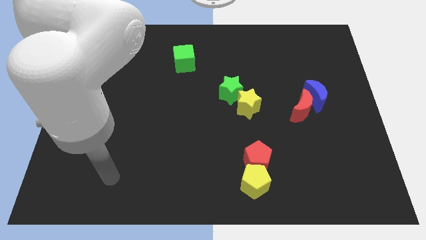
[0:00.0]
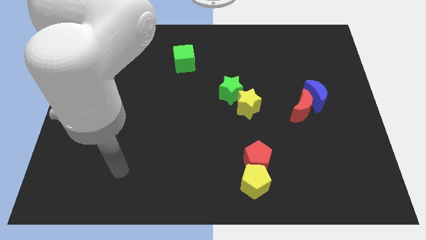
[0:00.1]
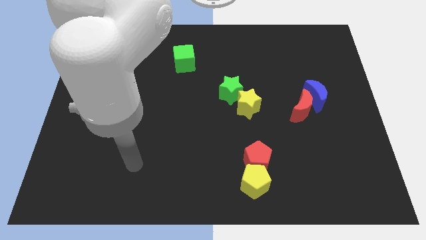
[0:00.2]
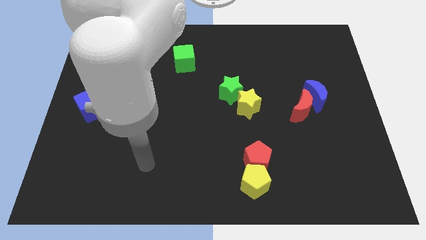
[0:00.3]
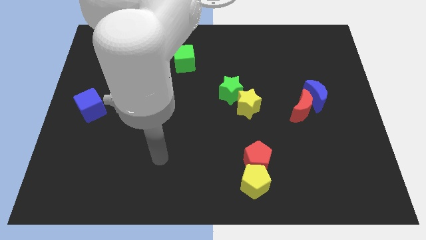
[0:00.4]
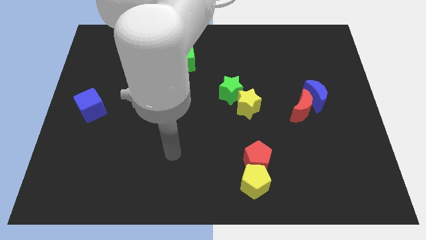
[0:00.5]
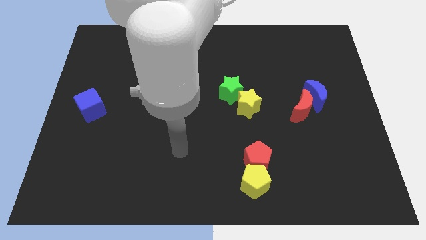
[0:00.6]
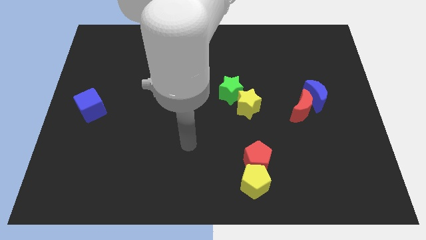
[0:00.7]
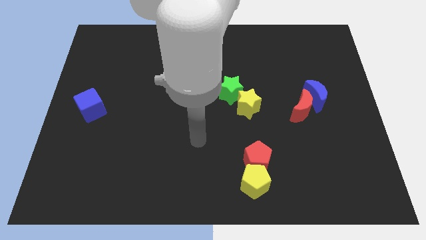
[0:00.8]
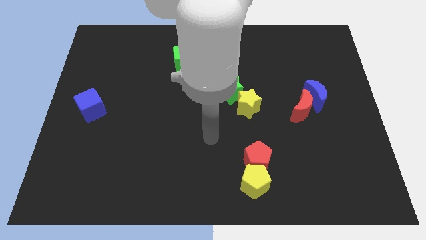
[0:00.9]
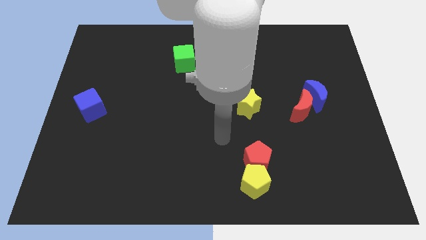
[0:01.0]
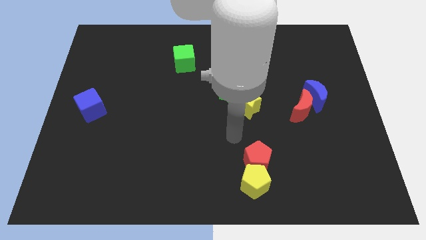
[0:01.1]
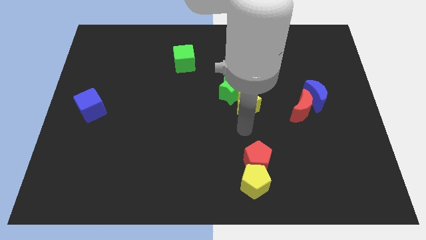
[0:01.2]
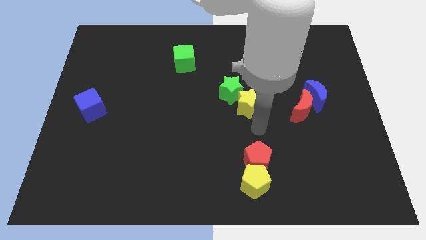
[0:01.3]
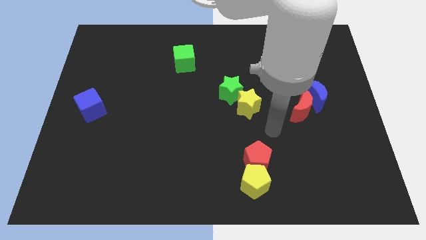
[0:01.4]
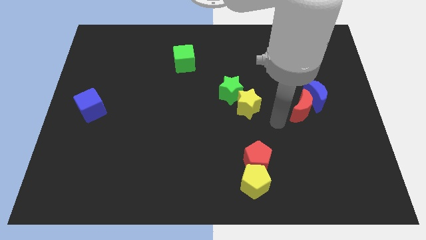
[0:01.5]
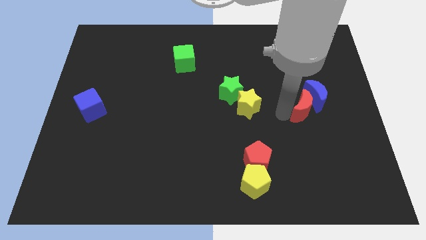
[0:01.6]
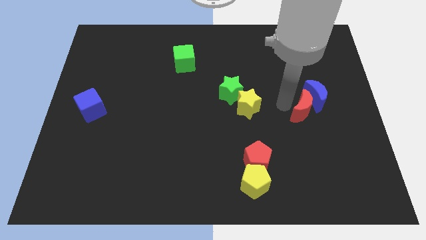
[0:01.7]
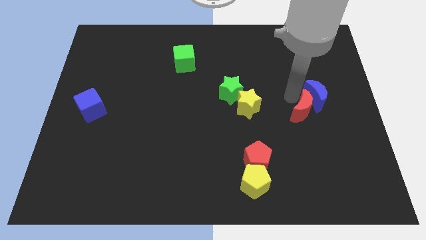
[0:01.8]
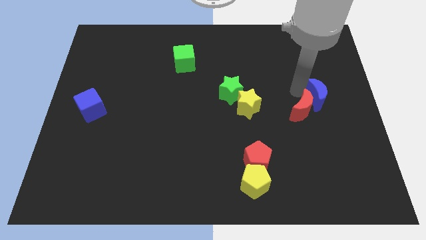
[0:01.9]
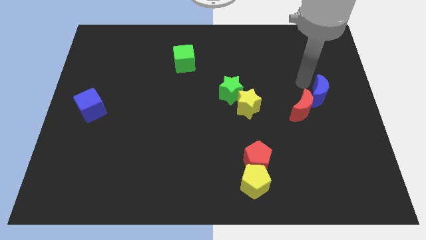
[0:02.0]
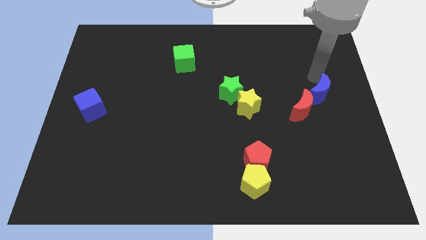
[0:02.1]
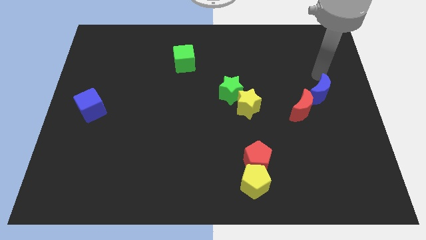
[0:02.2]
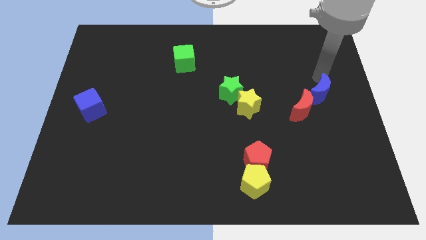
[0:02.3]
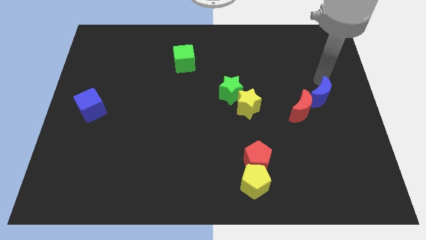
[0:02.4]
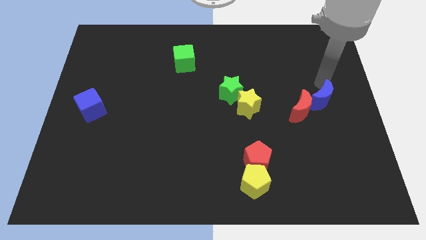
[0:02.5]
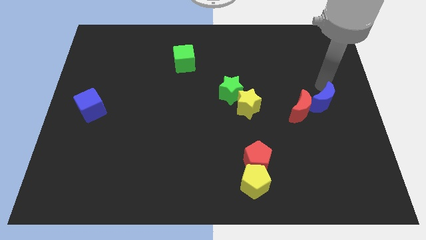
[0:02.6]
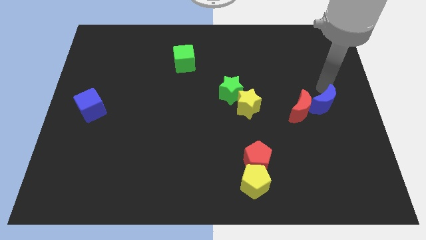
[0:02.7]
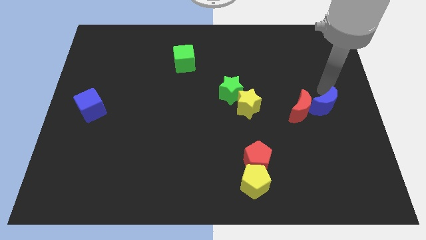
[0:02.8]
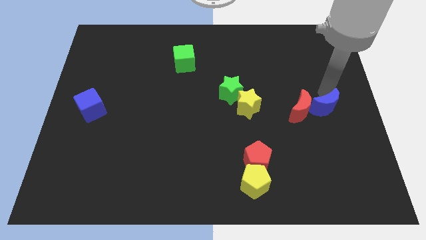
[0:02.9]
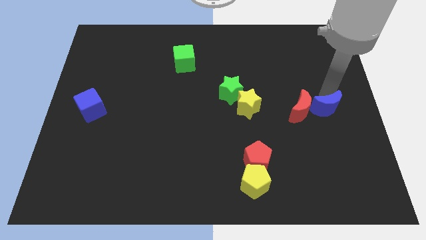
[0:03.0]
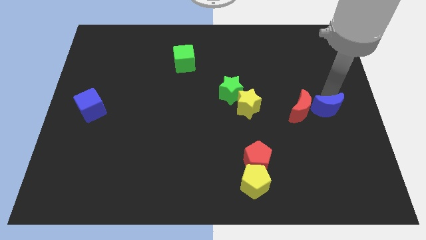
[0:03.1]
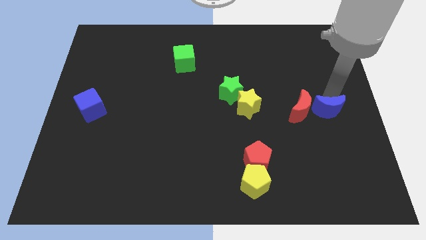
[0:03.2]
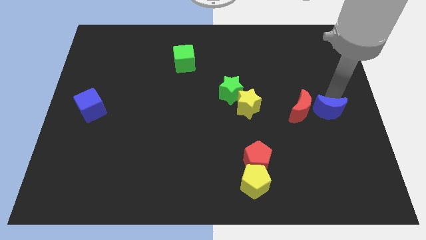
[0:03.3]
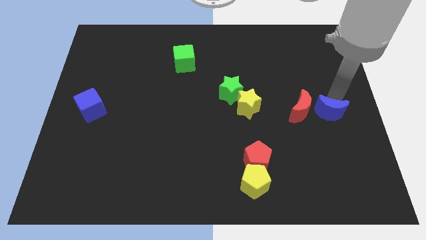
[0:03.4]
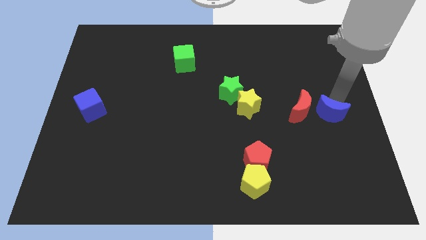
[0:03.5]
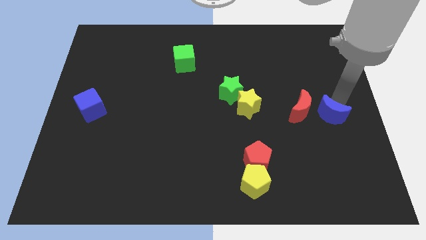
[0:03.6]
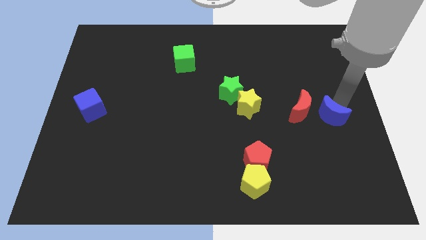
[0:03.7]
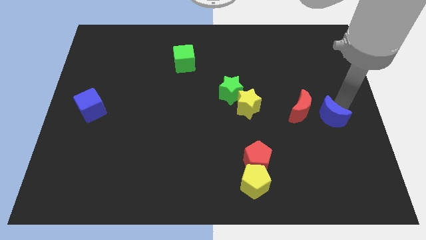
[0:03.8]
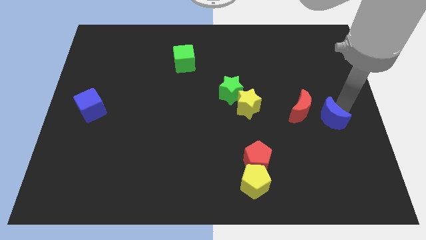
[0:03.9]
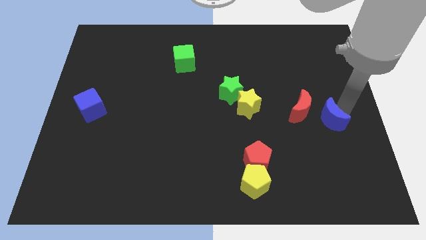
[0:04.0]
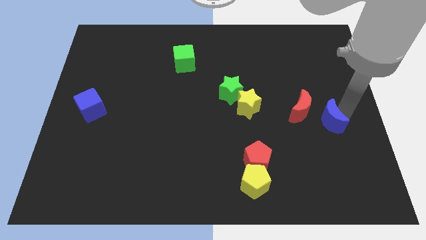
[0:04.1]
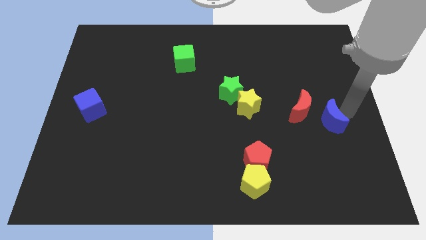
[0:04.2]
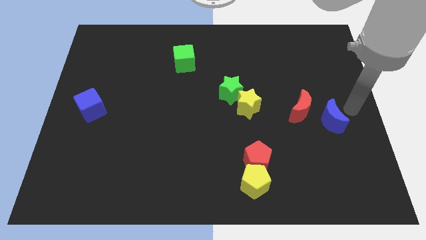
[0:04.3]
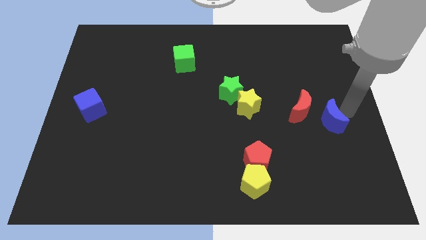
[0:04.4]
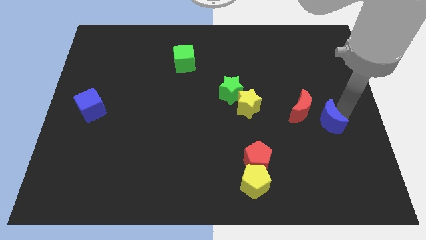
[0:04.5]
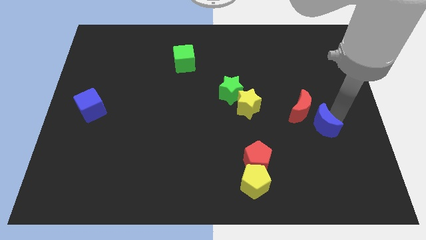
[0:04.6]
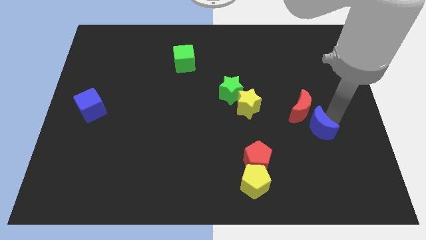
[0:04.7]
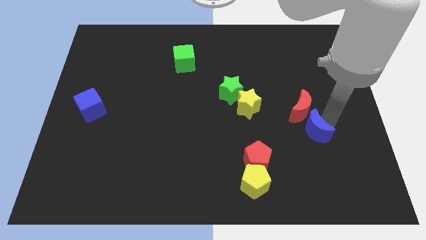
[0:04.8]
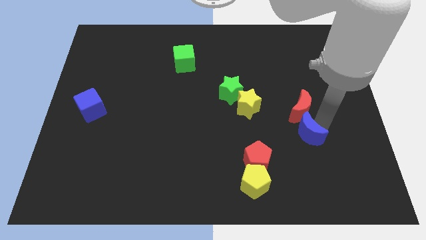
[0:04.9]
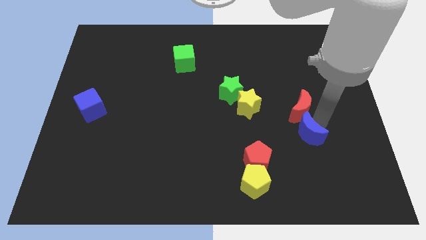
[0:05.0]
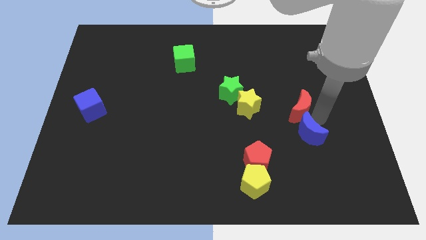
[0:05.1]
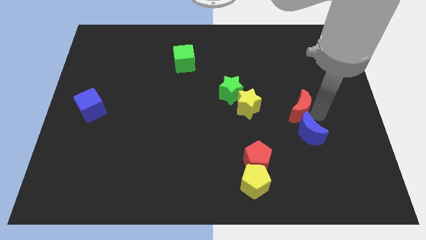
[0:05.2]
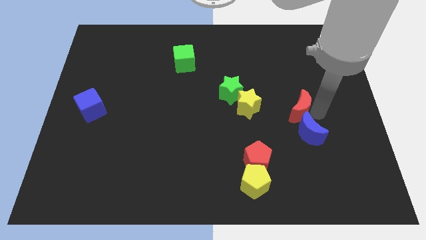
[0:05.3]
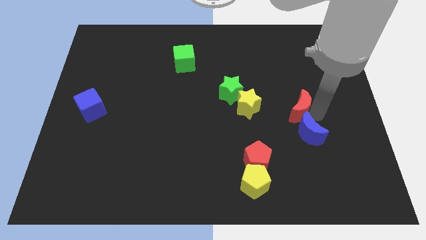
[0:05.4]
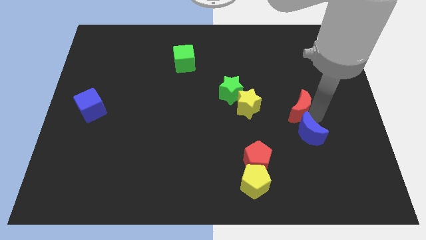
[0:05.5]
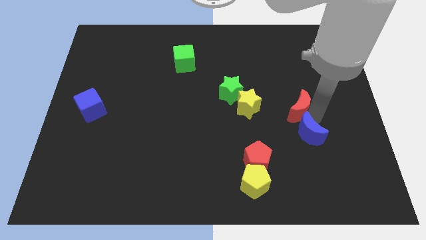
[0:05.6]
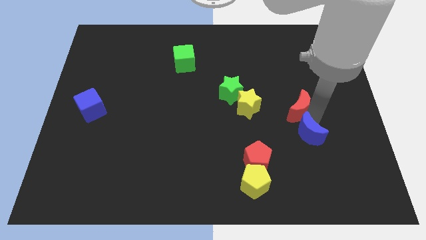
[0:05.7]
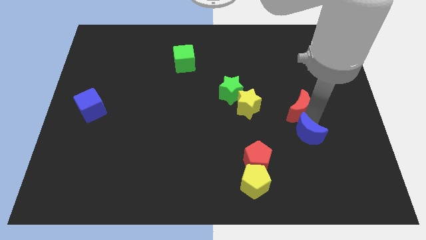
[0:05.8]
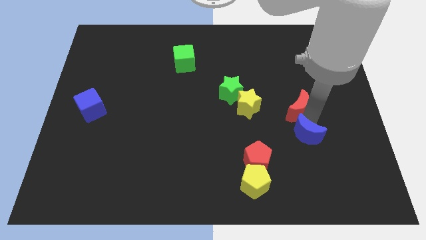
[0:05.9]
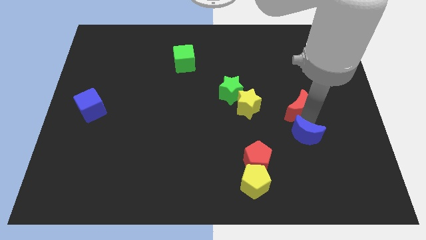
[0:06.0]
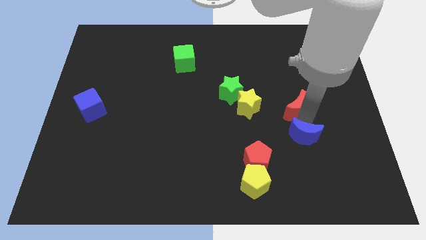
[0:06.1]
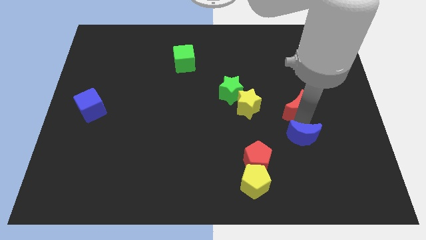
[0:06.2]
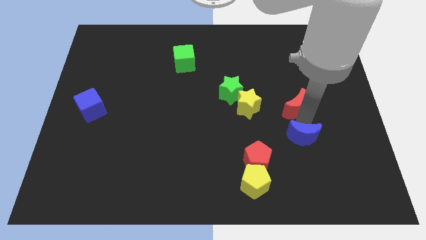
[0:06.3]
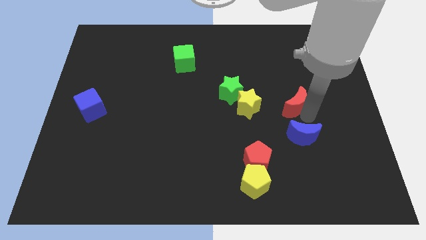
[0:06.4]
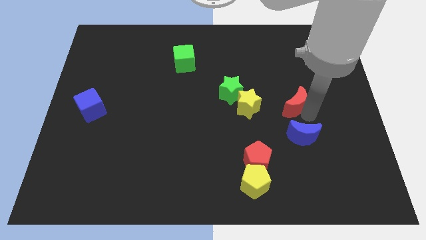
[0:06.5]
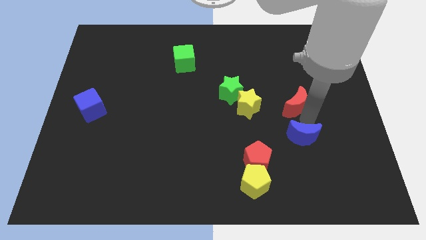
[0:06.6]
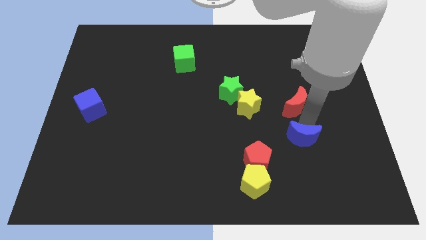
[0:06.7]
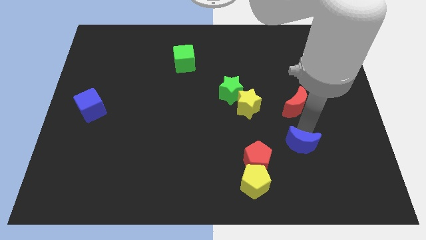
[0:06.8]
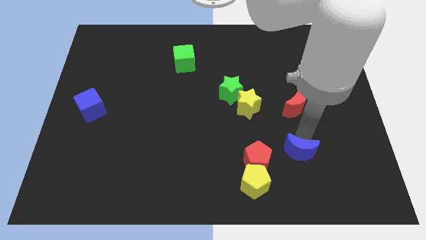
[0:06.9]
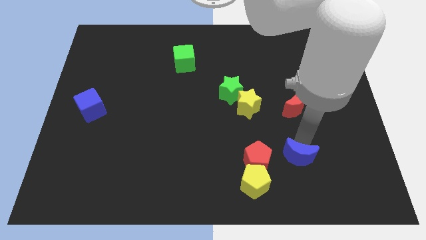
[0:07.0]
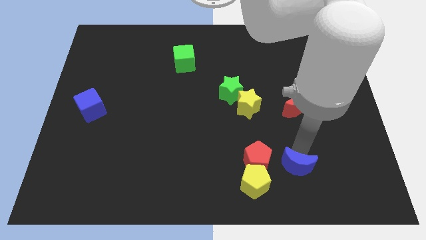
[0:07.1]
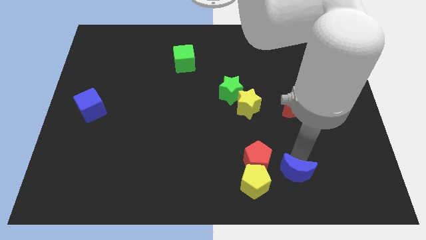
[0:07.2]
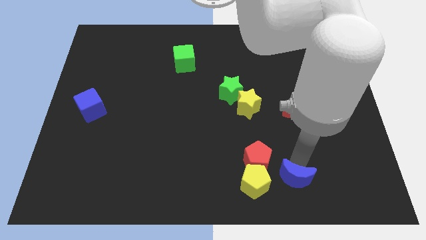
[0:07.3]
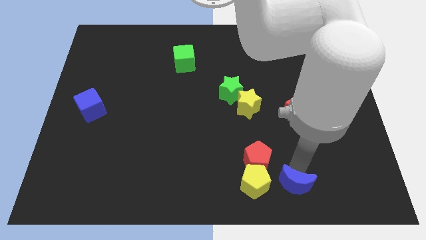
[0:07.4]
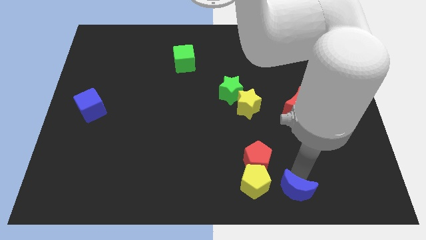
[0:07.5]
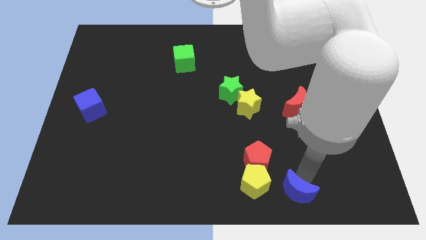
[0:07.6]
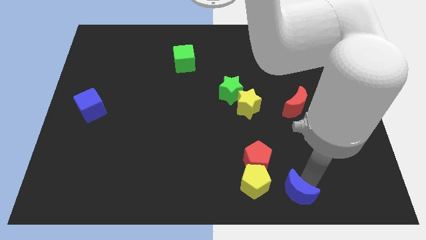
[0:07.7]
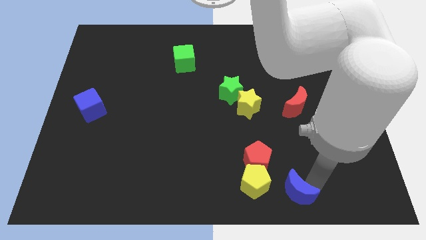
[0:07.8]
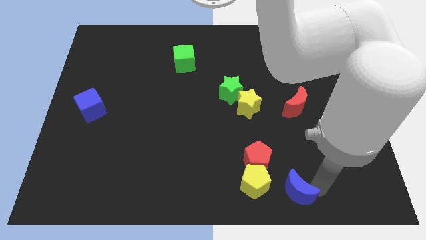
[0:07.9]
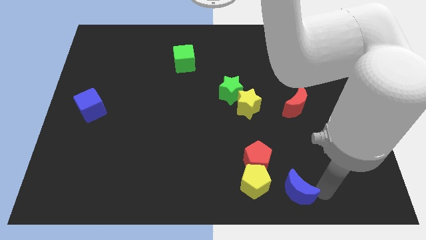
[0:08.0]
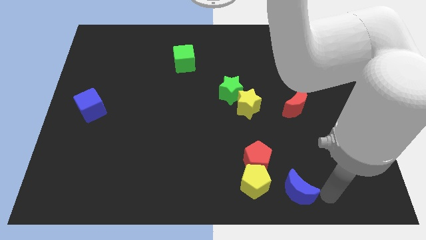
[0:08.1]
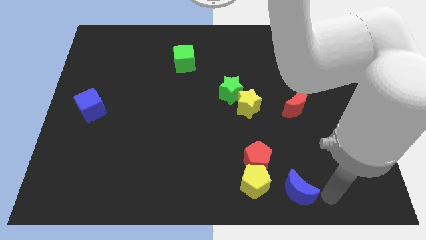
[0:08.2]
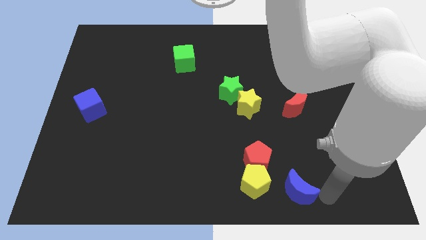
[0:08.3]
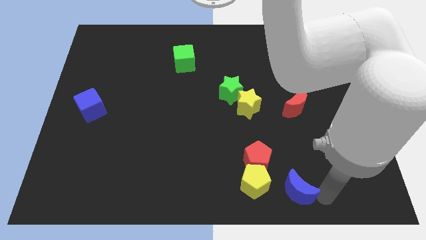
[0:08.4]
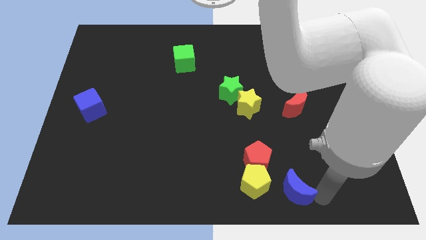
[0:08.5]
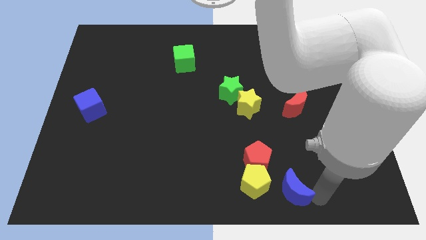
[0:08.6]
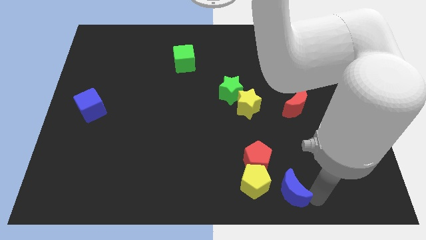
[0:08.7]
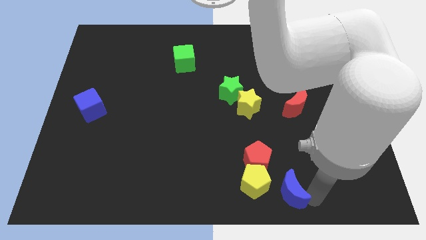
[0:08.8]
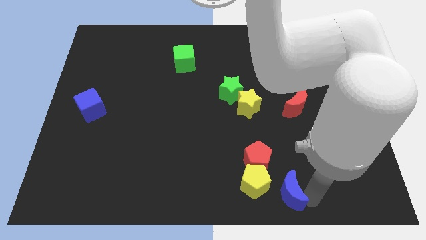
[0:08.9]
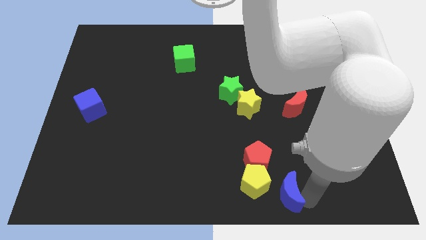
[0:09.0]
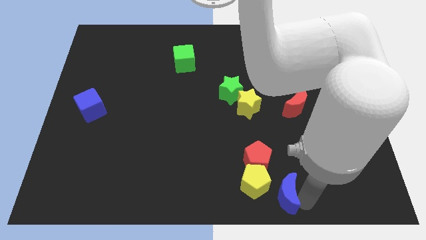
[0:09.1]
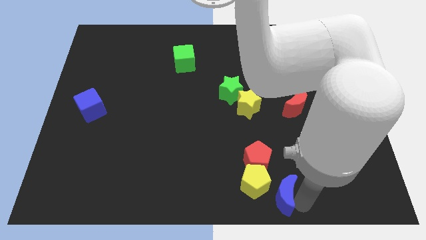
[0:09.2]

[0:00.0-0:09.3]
put the blue moon to the yellow pentagon
